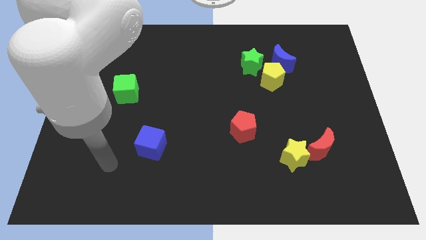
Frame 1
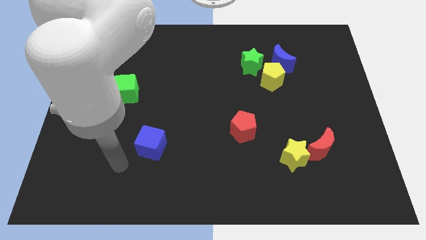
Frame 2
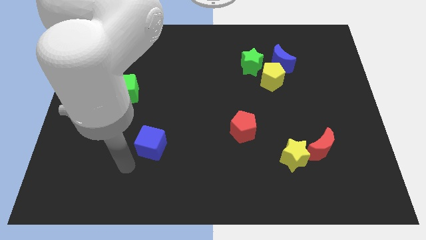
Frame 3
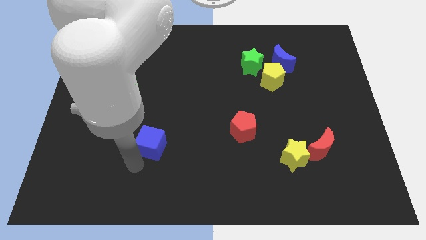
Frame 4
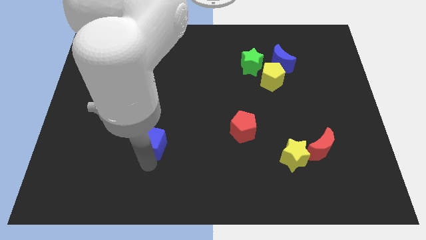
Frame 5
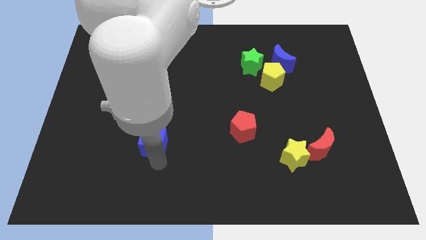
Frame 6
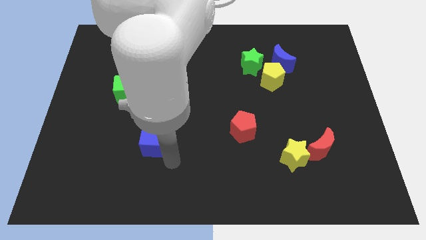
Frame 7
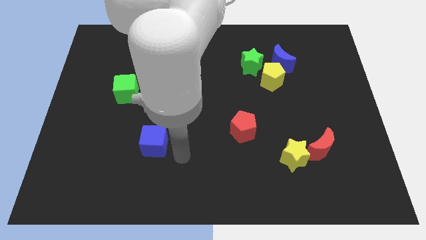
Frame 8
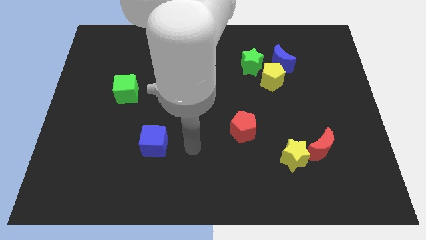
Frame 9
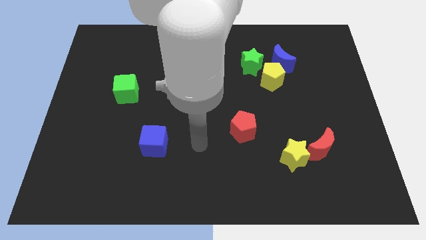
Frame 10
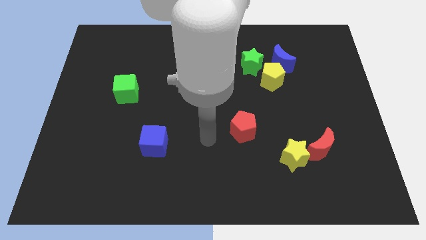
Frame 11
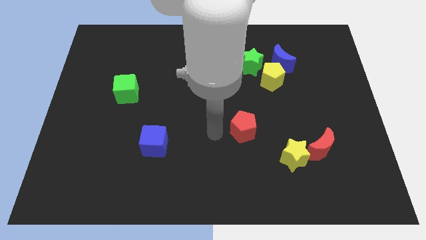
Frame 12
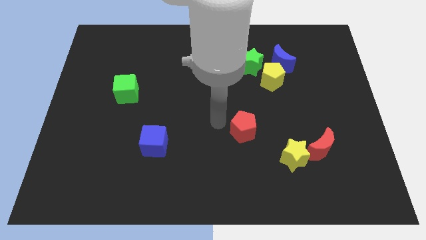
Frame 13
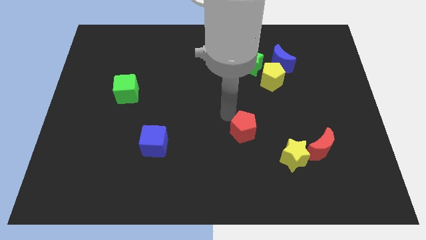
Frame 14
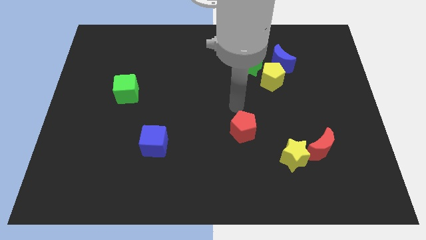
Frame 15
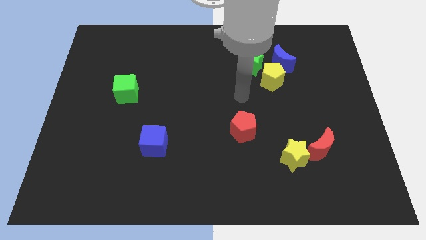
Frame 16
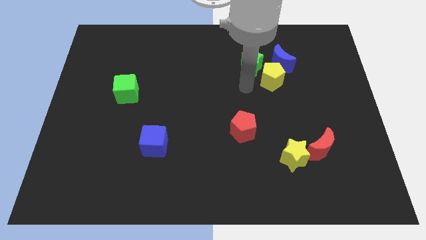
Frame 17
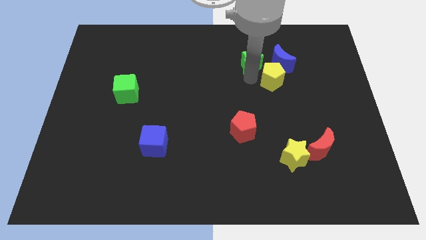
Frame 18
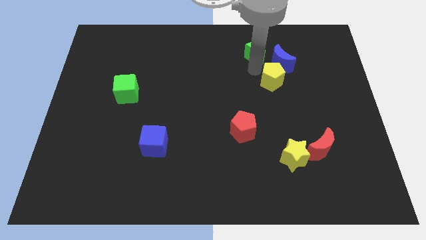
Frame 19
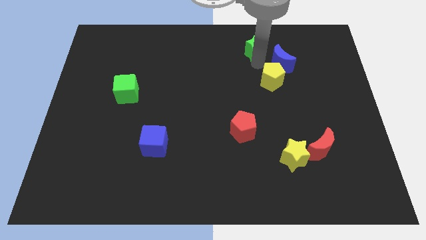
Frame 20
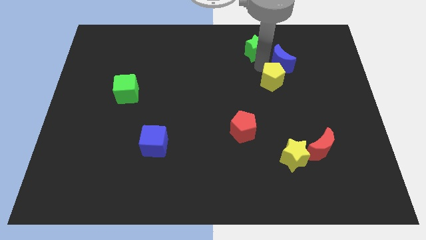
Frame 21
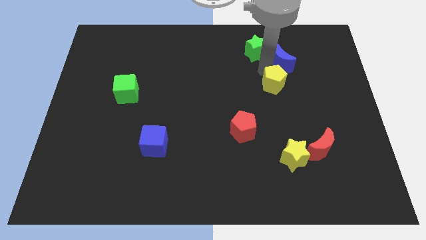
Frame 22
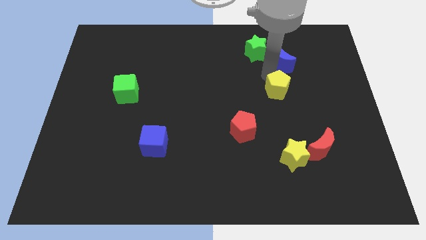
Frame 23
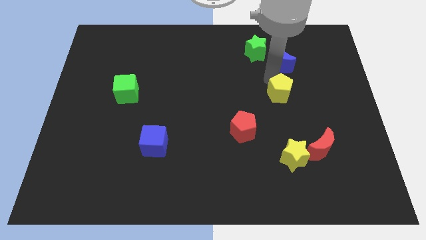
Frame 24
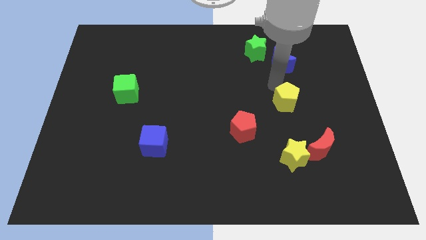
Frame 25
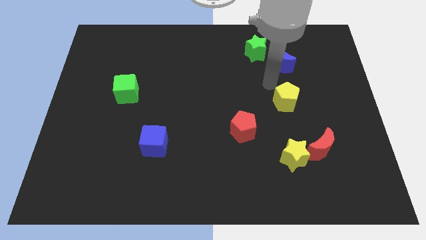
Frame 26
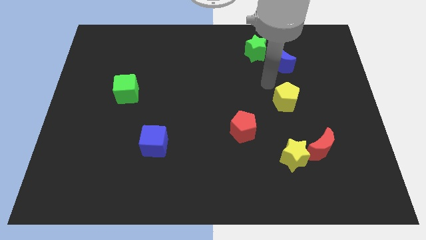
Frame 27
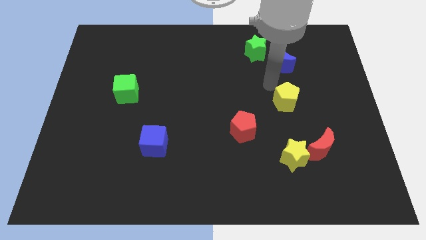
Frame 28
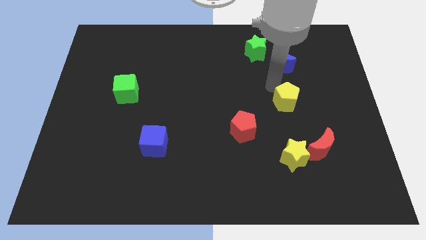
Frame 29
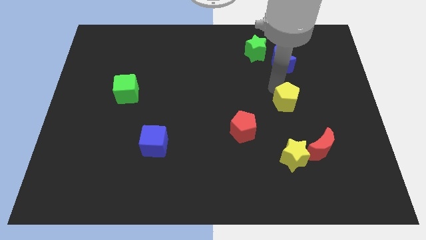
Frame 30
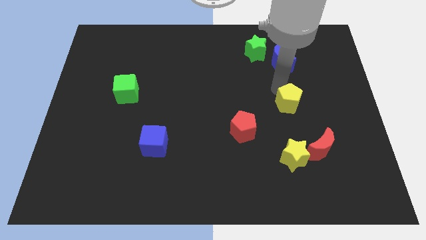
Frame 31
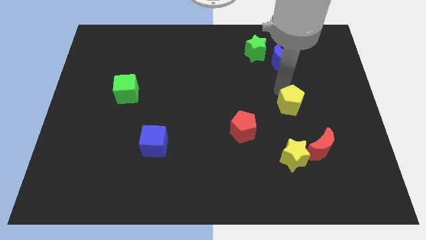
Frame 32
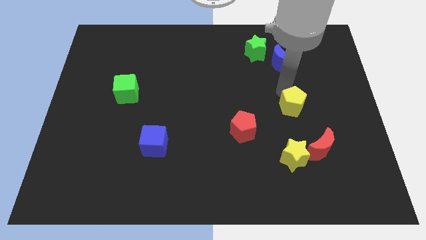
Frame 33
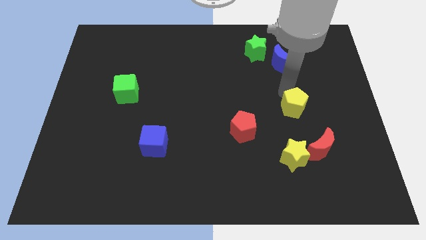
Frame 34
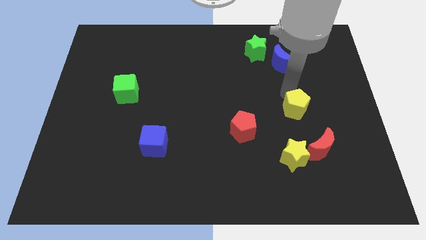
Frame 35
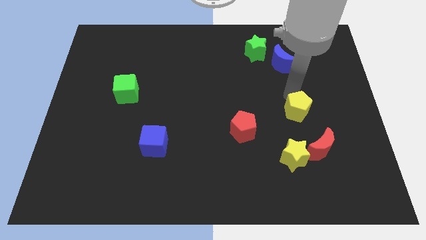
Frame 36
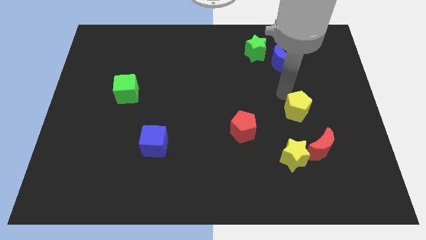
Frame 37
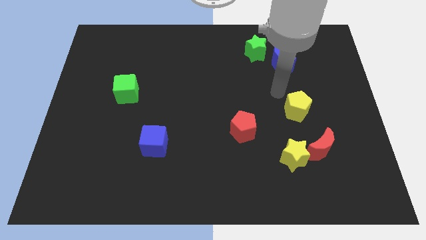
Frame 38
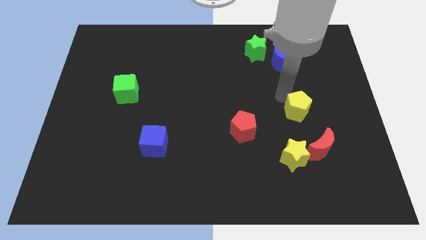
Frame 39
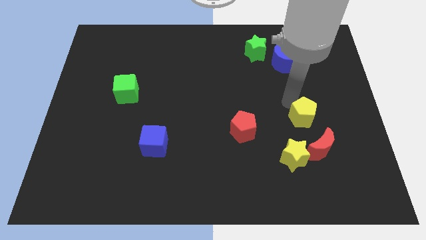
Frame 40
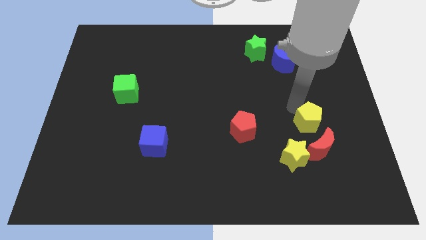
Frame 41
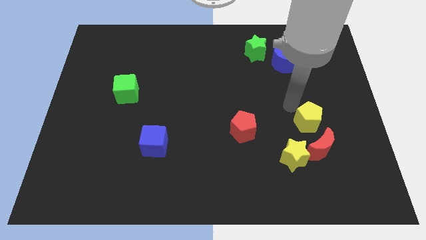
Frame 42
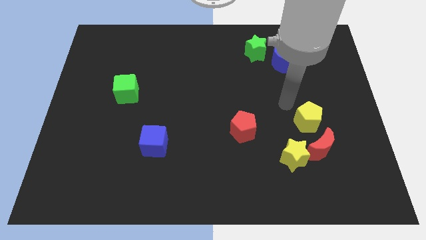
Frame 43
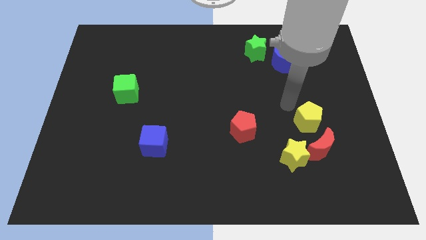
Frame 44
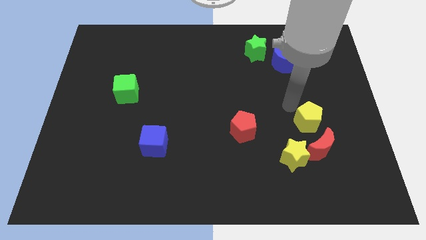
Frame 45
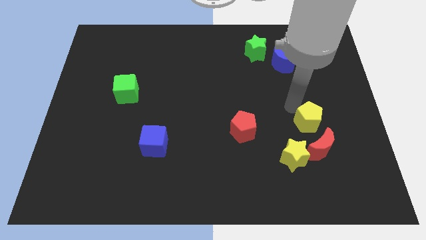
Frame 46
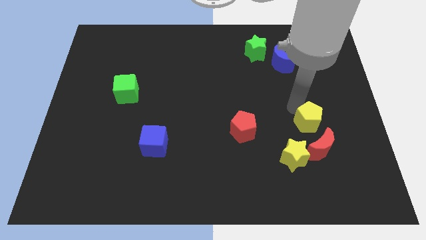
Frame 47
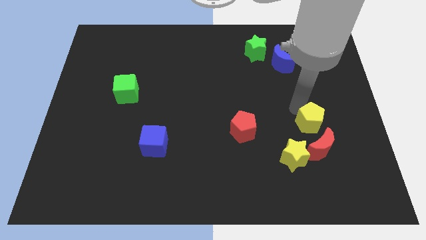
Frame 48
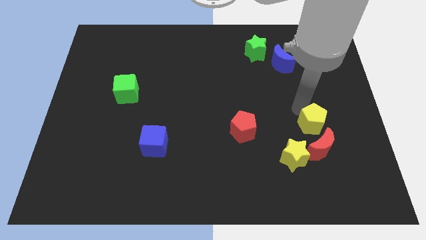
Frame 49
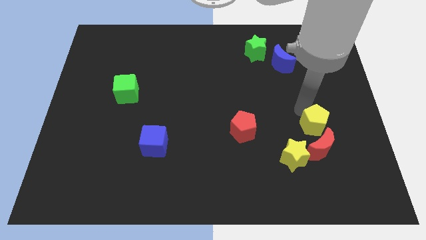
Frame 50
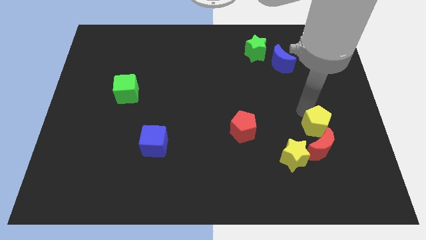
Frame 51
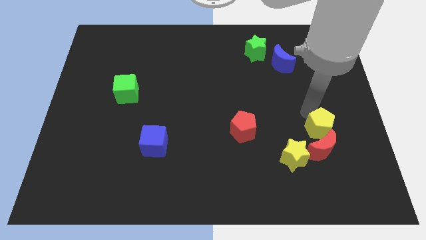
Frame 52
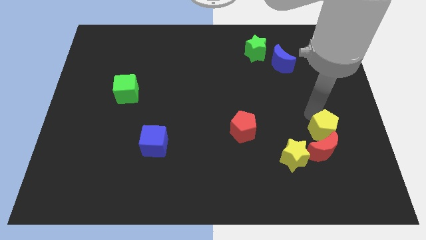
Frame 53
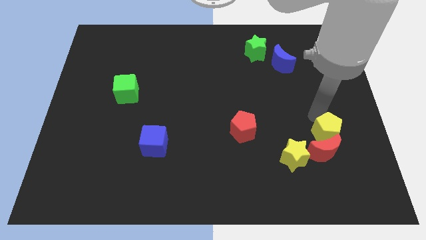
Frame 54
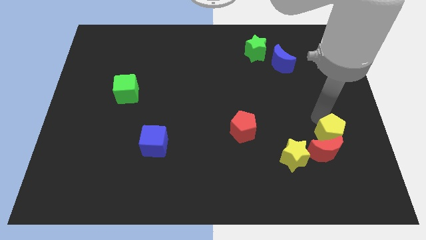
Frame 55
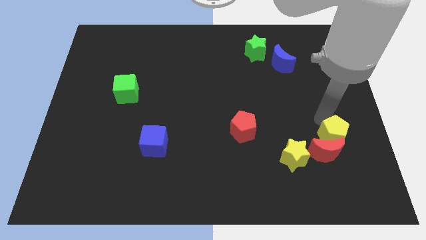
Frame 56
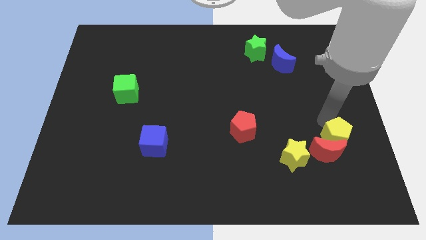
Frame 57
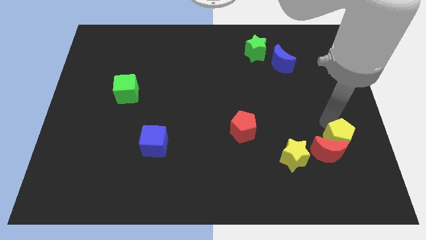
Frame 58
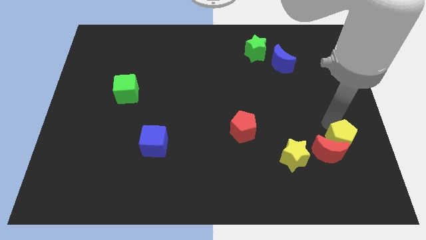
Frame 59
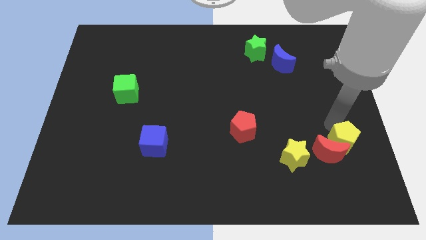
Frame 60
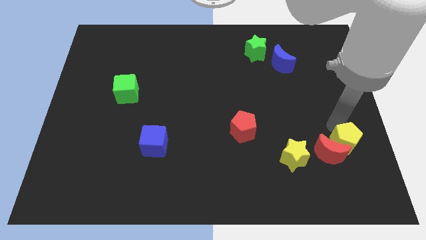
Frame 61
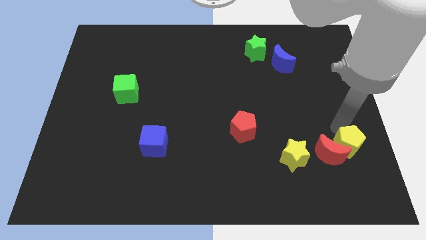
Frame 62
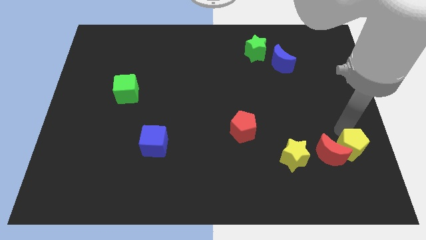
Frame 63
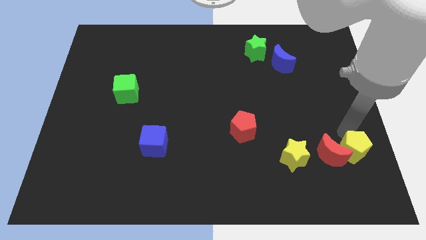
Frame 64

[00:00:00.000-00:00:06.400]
push the yellow pentagon diagonally down and to the right of the red moon

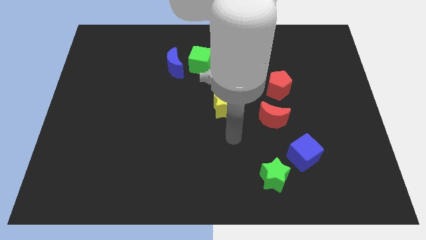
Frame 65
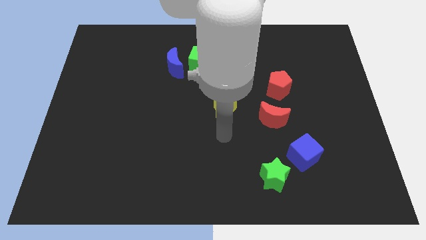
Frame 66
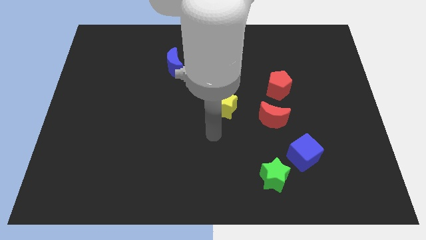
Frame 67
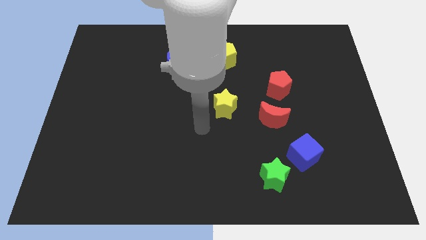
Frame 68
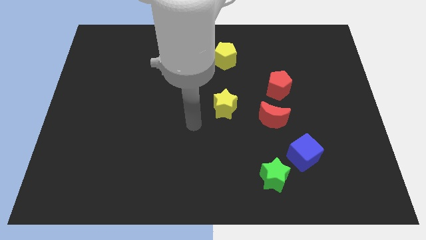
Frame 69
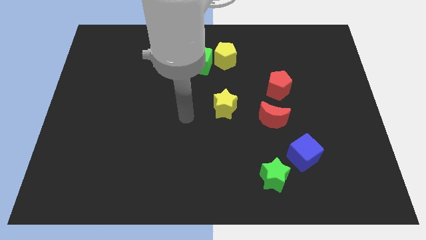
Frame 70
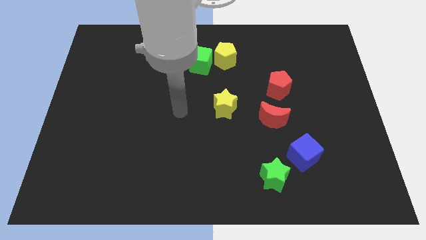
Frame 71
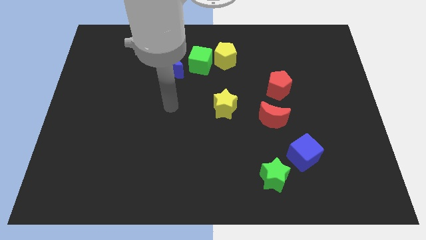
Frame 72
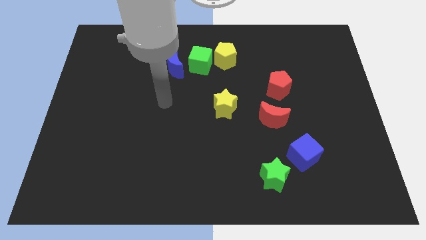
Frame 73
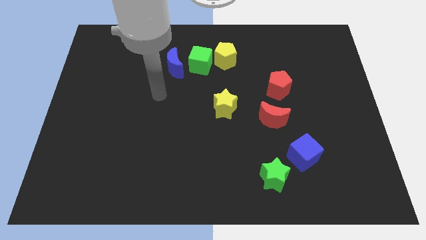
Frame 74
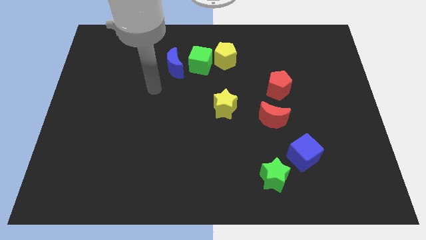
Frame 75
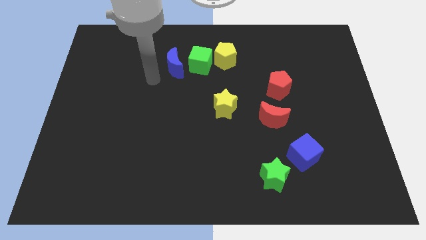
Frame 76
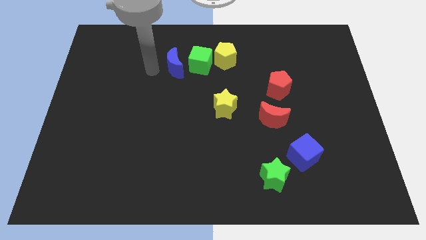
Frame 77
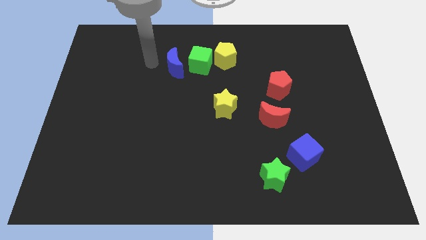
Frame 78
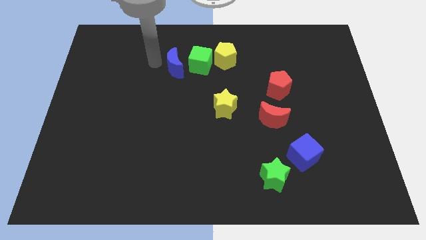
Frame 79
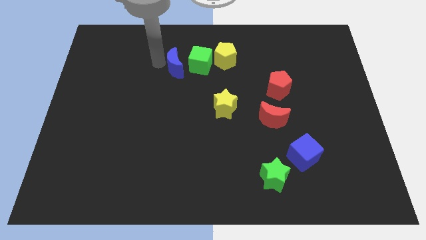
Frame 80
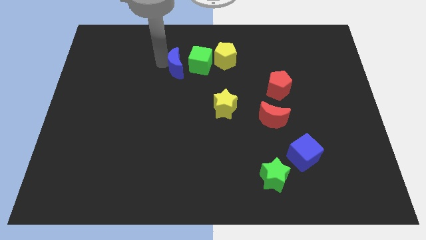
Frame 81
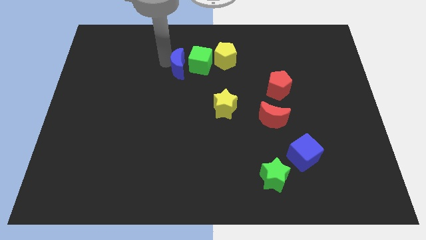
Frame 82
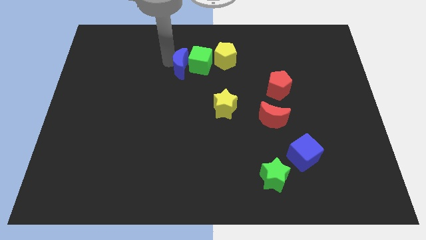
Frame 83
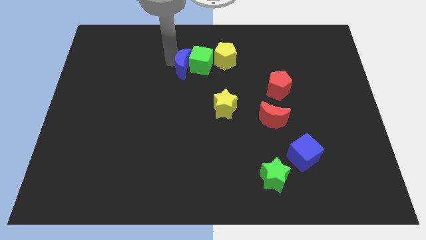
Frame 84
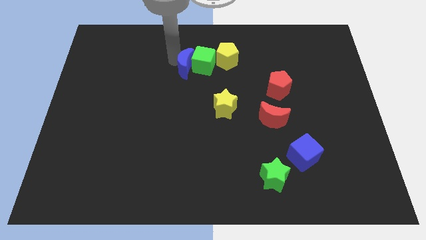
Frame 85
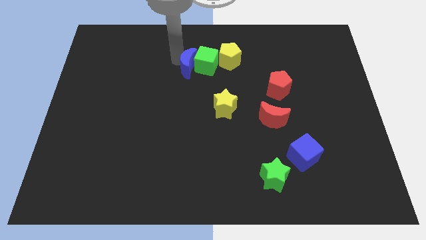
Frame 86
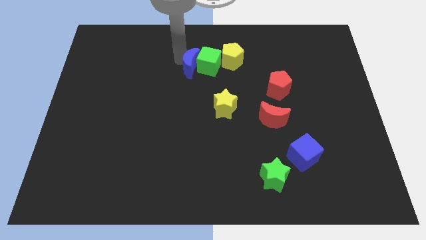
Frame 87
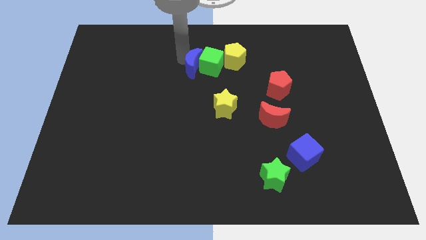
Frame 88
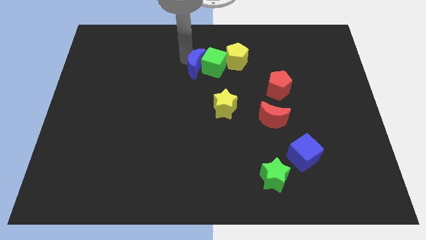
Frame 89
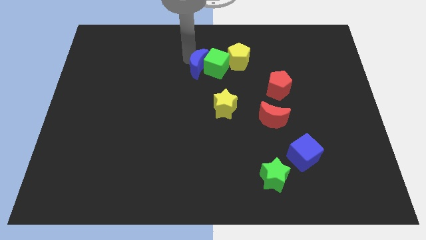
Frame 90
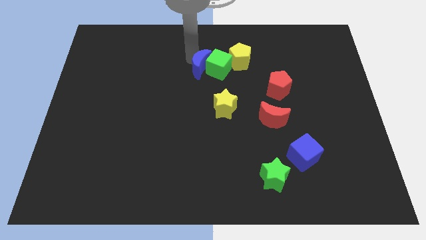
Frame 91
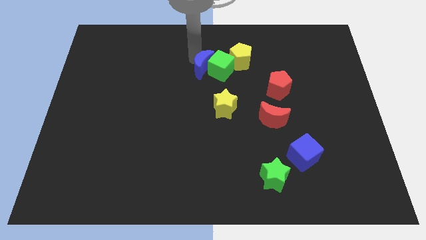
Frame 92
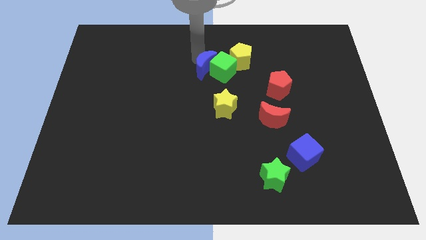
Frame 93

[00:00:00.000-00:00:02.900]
slide the blue moon to the bottom left side of the yellow pentagon
